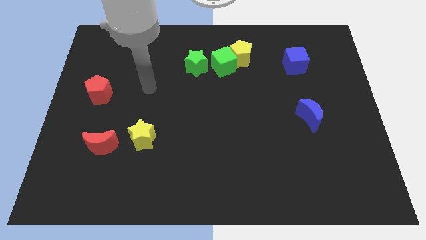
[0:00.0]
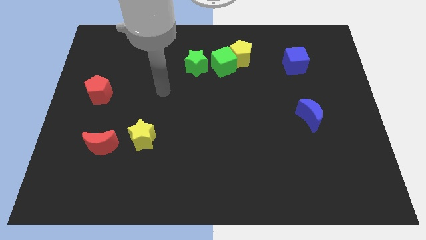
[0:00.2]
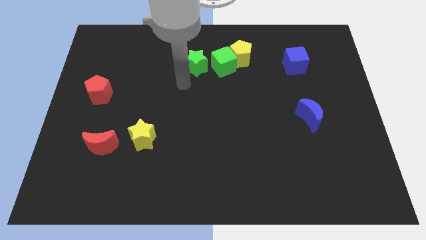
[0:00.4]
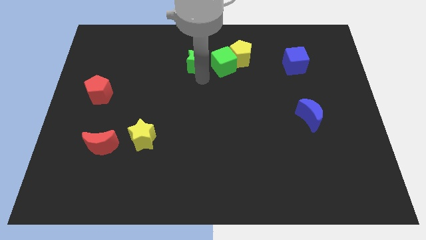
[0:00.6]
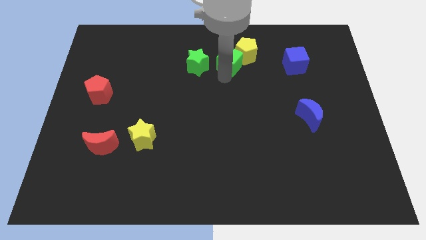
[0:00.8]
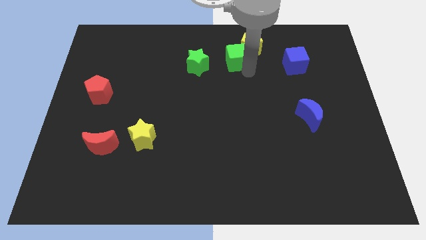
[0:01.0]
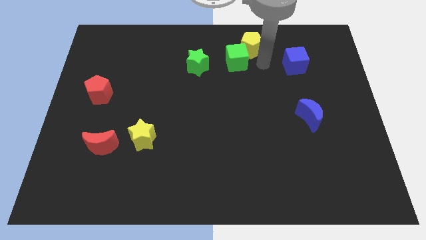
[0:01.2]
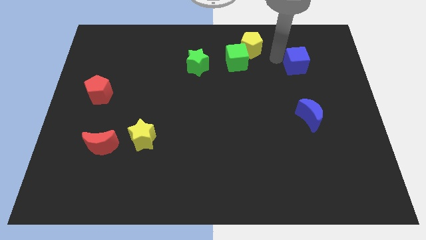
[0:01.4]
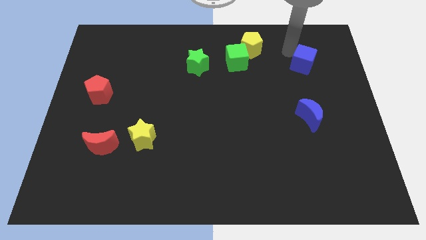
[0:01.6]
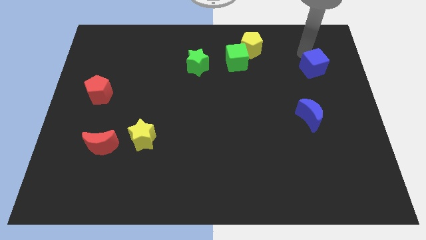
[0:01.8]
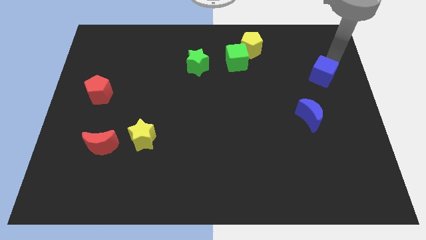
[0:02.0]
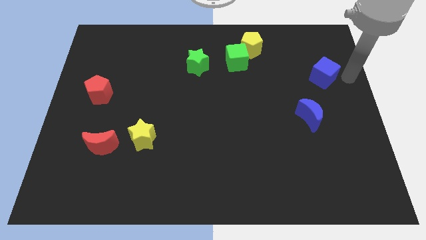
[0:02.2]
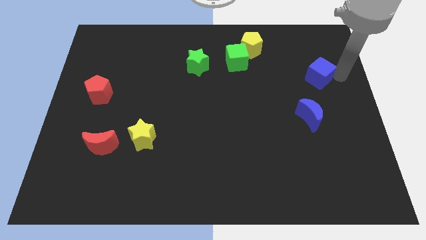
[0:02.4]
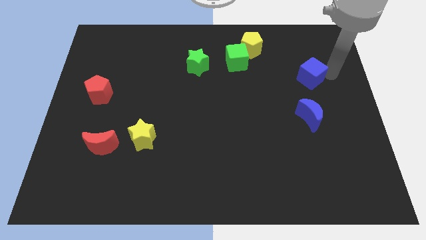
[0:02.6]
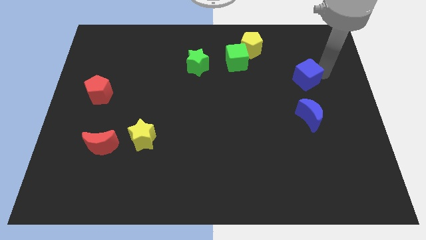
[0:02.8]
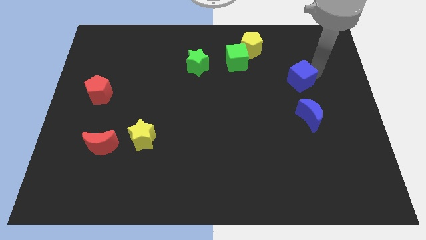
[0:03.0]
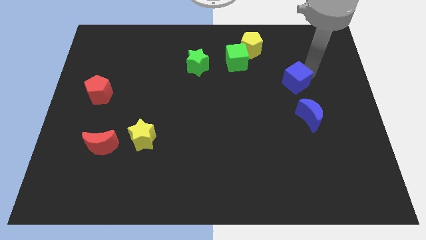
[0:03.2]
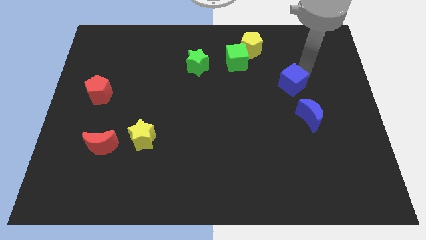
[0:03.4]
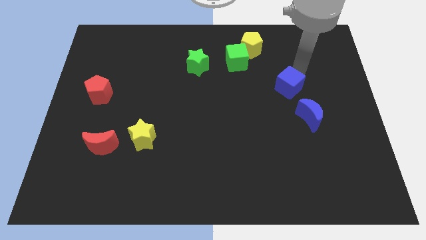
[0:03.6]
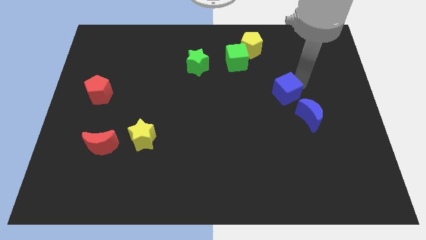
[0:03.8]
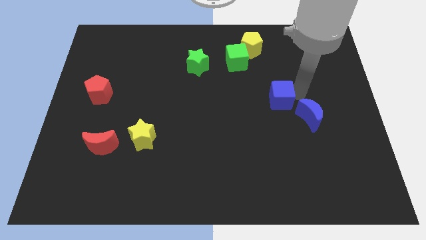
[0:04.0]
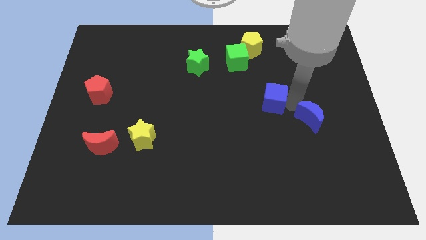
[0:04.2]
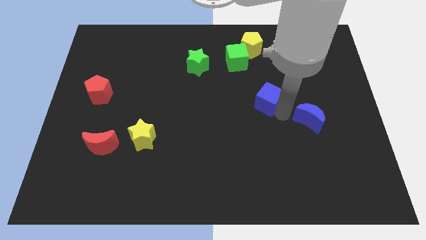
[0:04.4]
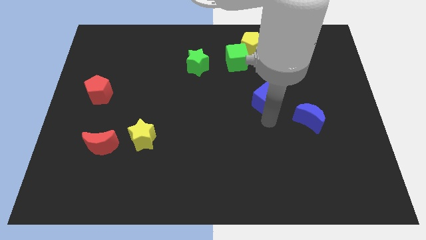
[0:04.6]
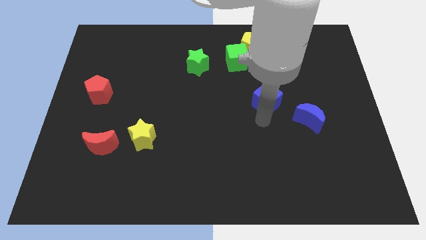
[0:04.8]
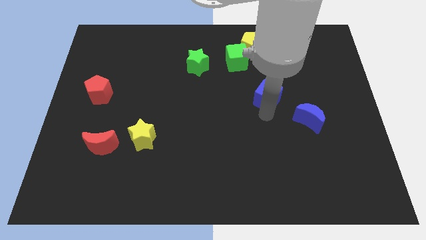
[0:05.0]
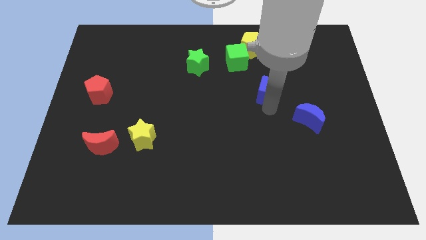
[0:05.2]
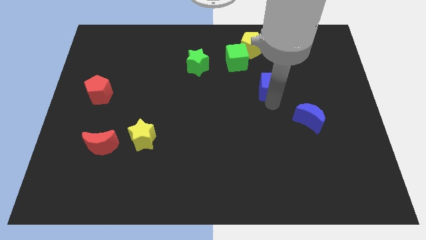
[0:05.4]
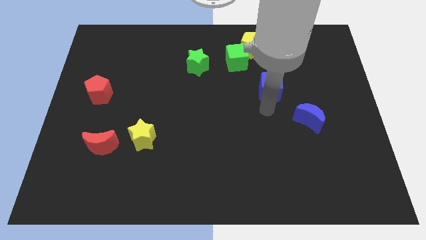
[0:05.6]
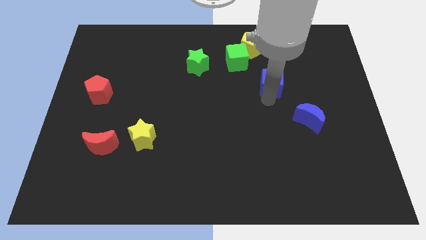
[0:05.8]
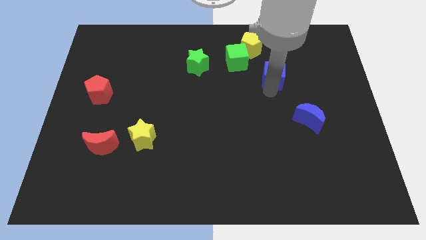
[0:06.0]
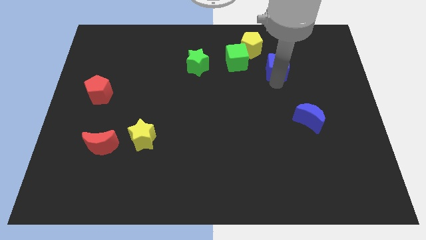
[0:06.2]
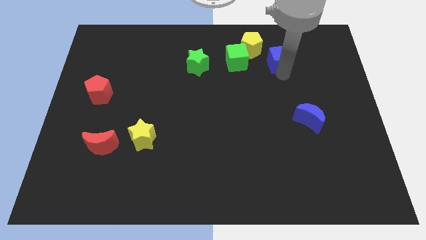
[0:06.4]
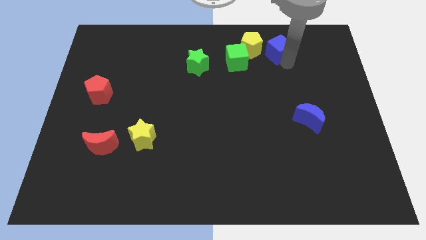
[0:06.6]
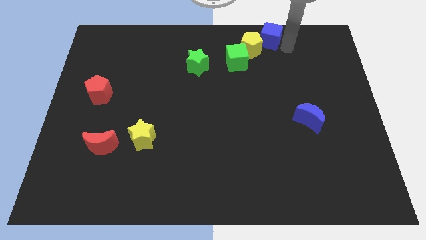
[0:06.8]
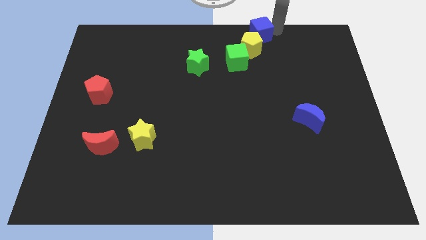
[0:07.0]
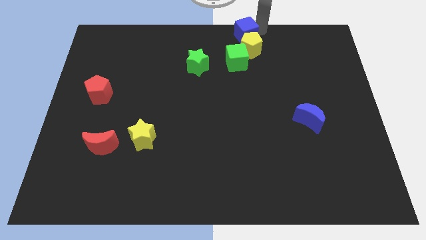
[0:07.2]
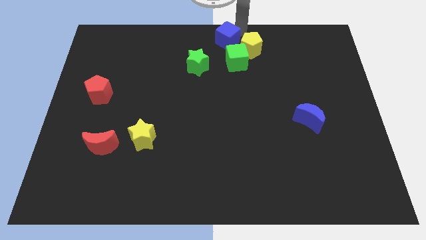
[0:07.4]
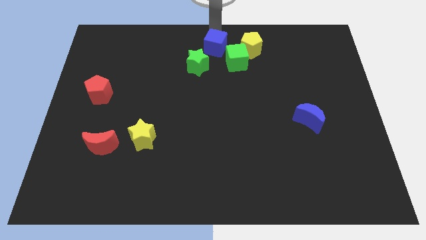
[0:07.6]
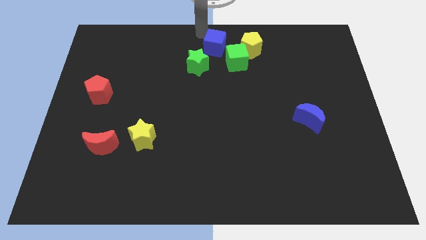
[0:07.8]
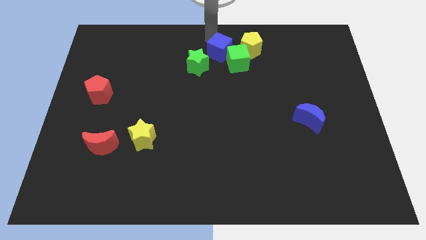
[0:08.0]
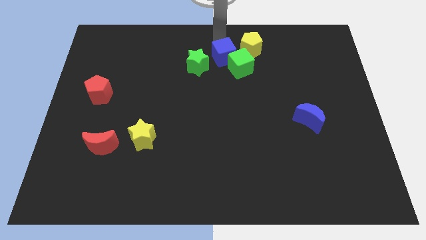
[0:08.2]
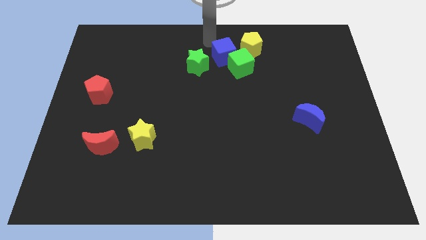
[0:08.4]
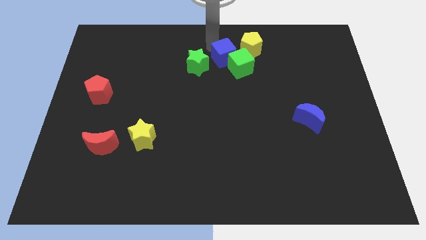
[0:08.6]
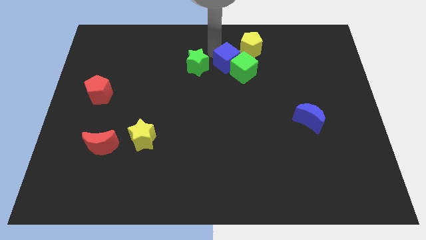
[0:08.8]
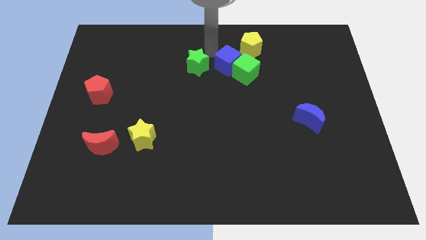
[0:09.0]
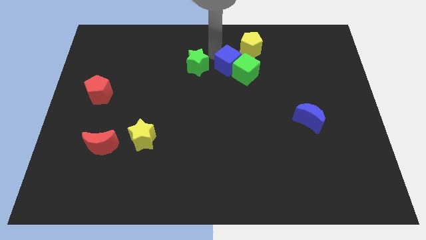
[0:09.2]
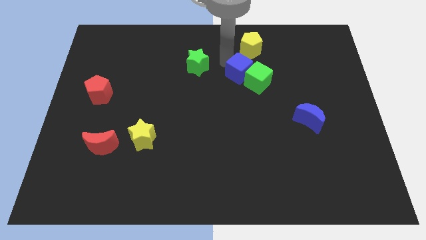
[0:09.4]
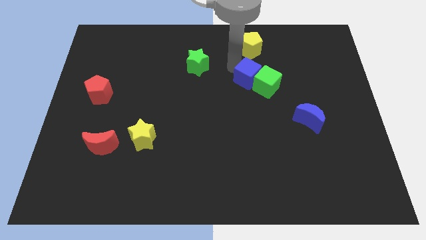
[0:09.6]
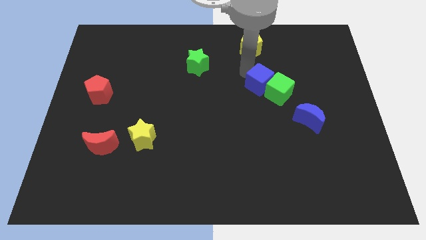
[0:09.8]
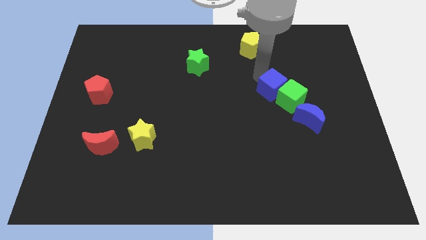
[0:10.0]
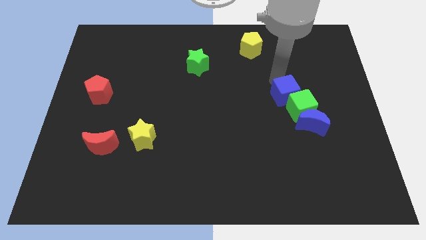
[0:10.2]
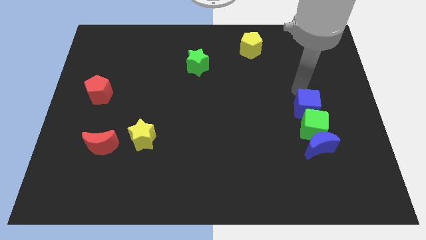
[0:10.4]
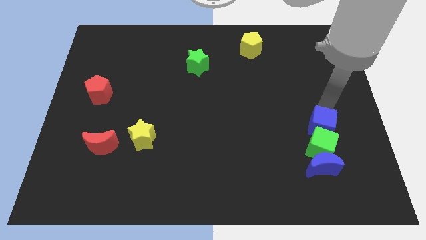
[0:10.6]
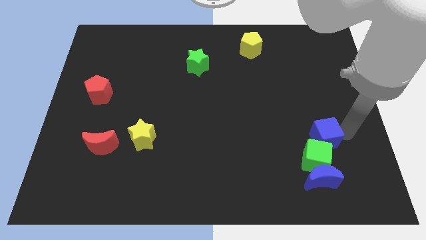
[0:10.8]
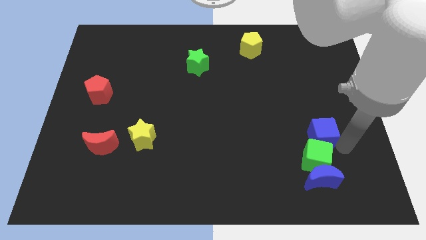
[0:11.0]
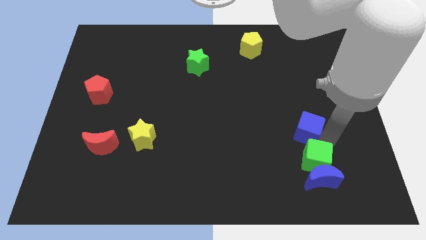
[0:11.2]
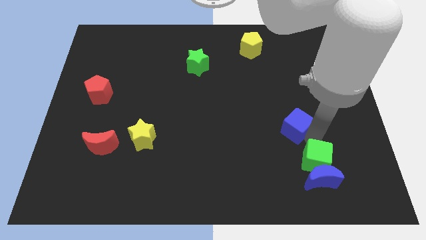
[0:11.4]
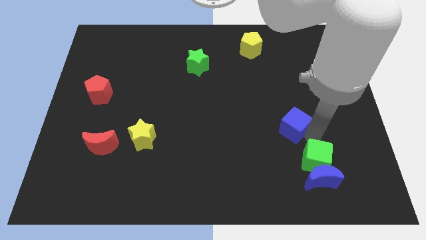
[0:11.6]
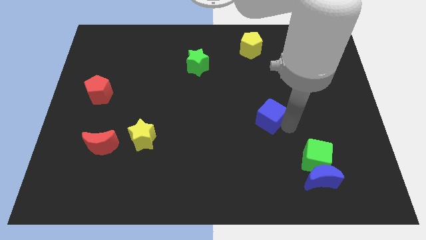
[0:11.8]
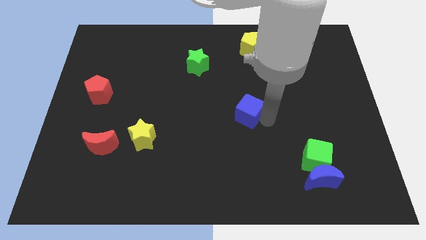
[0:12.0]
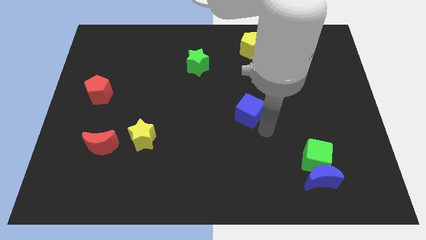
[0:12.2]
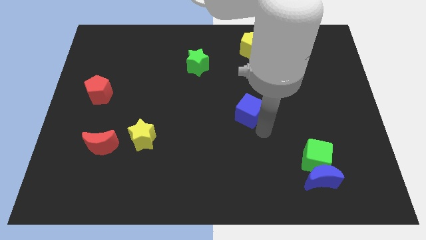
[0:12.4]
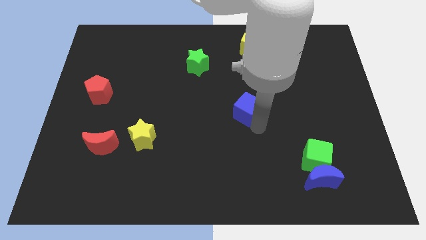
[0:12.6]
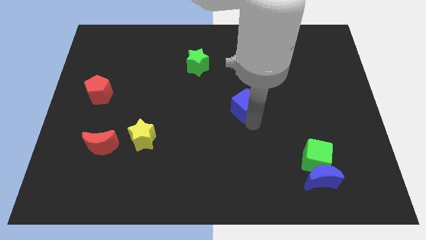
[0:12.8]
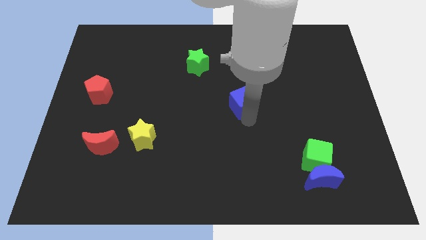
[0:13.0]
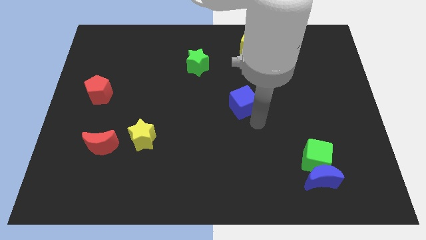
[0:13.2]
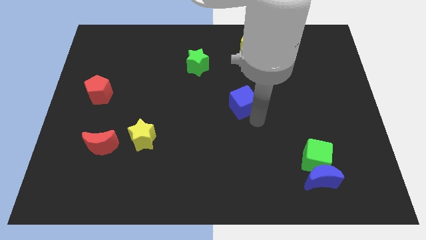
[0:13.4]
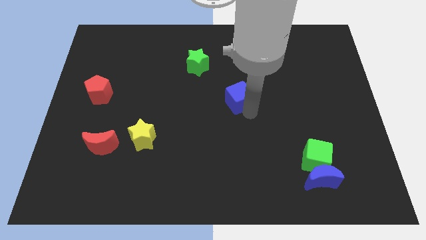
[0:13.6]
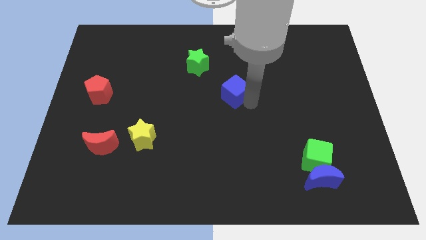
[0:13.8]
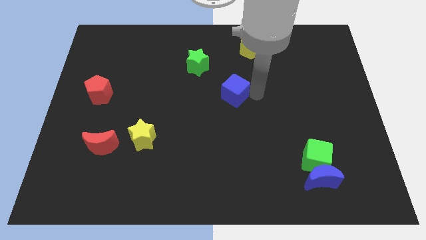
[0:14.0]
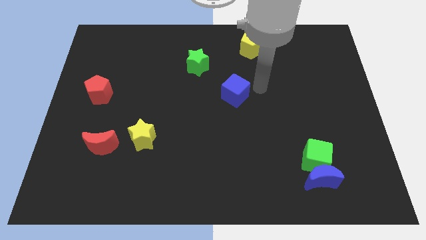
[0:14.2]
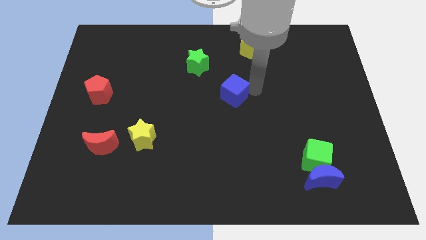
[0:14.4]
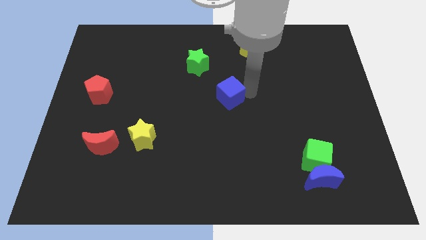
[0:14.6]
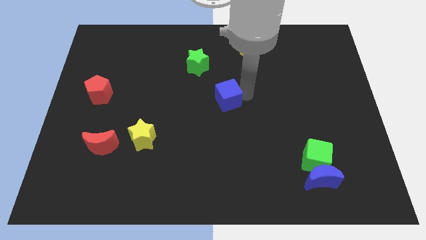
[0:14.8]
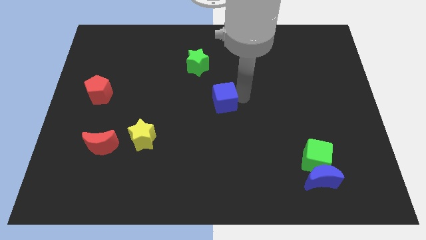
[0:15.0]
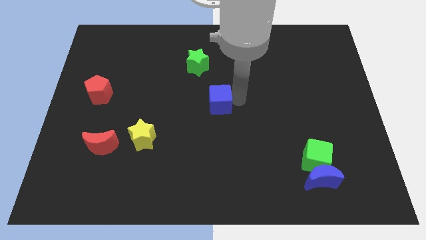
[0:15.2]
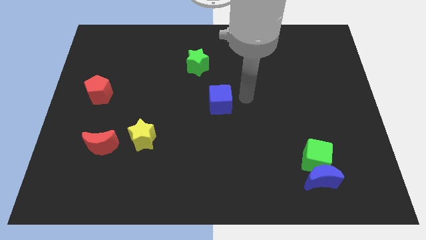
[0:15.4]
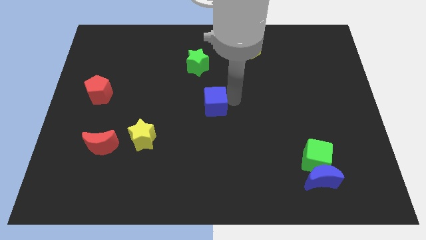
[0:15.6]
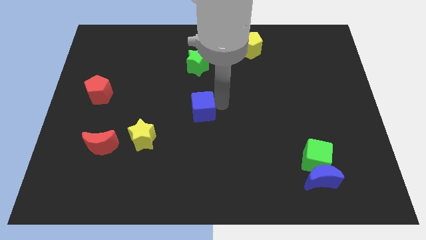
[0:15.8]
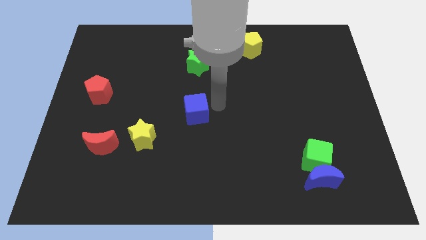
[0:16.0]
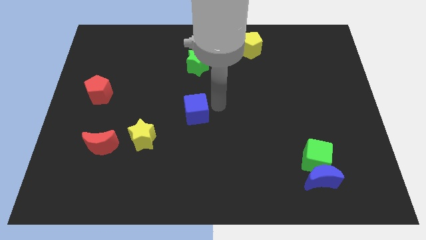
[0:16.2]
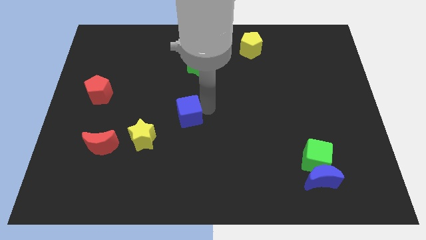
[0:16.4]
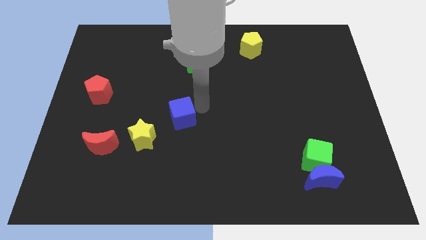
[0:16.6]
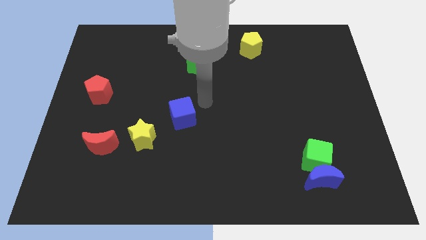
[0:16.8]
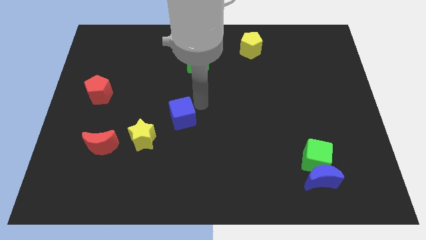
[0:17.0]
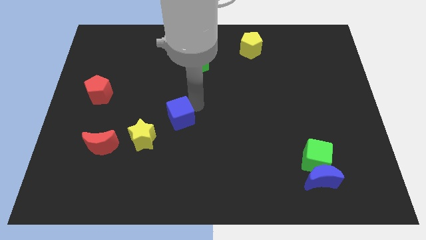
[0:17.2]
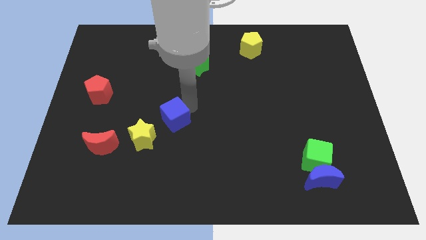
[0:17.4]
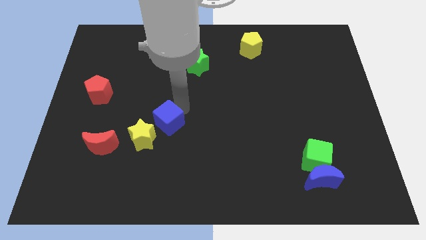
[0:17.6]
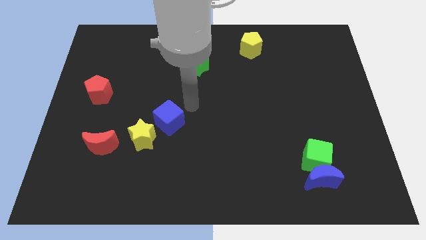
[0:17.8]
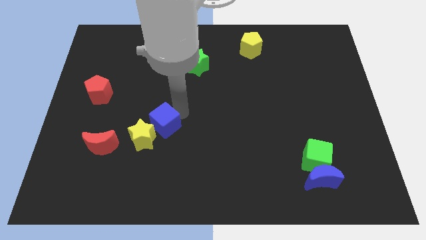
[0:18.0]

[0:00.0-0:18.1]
push the blue cube towards the yellow star
